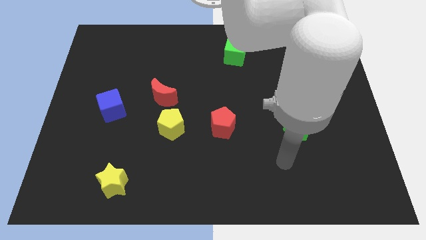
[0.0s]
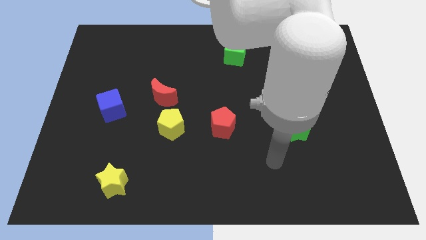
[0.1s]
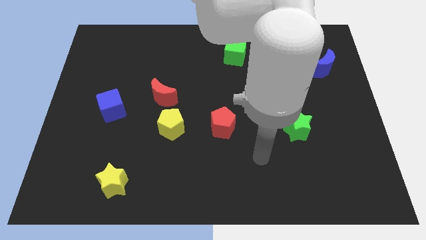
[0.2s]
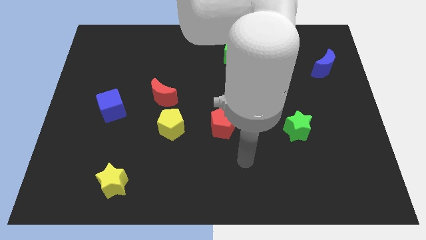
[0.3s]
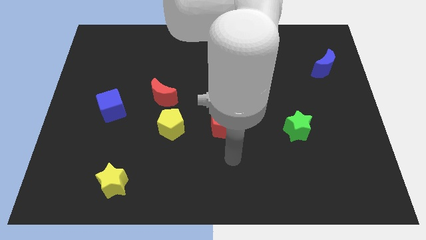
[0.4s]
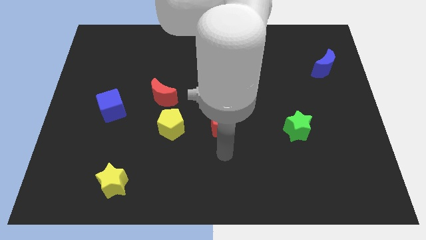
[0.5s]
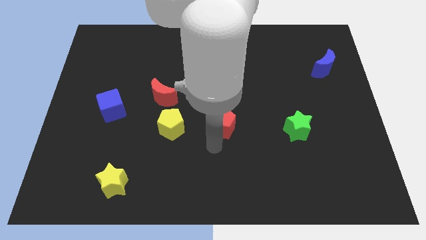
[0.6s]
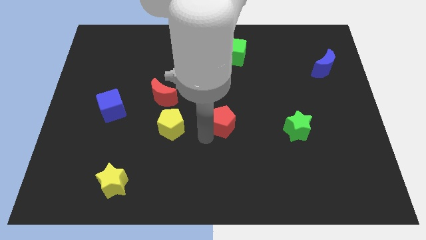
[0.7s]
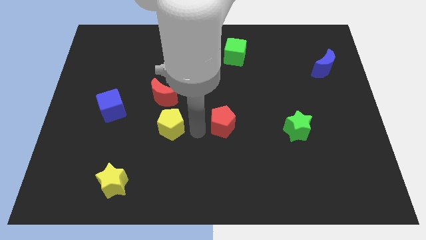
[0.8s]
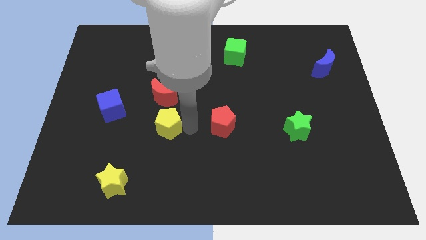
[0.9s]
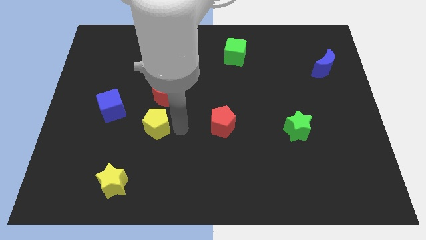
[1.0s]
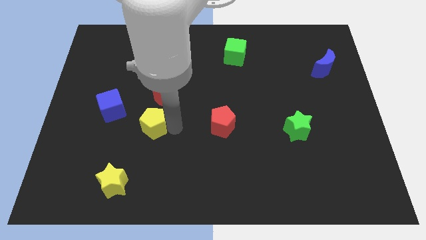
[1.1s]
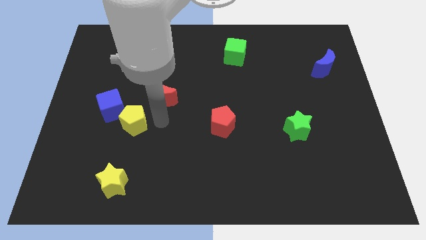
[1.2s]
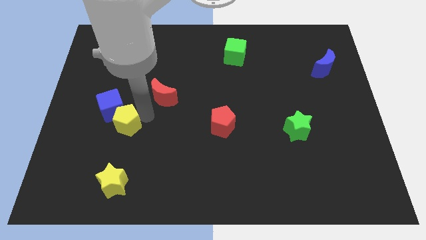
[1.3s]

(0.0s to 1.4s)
move the red moon away from the yellow pentagon

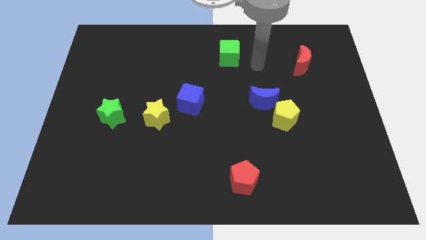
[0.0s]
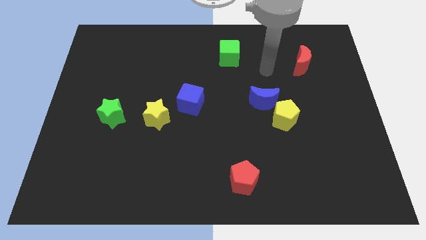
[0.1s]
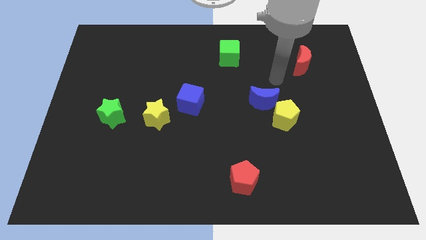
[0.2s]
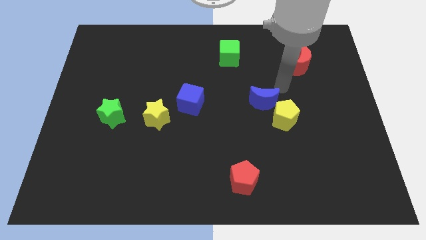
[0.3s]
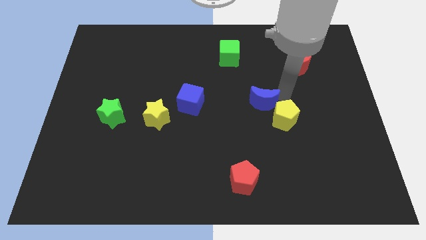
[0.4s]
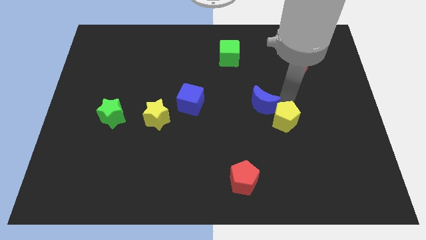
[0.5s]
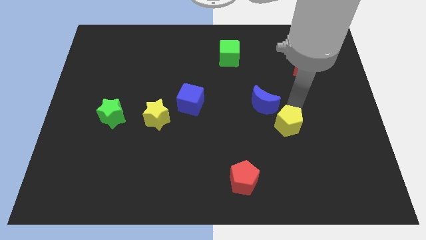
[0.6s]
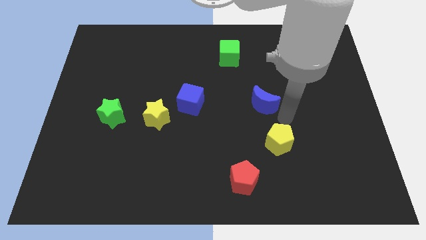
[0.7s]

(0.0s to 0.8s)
move the blue moon away from the yellow pentagon

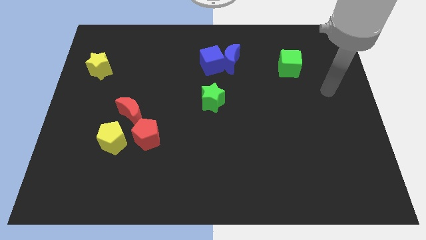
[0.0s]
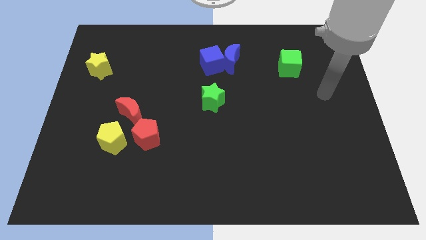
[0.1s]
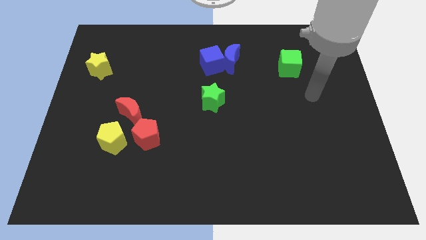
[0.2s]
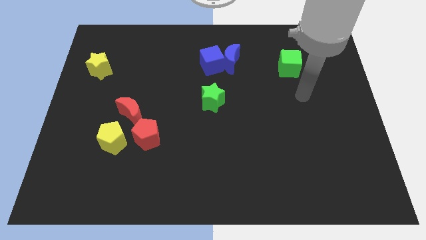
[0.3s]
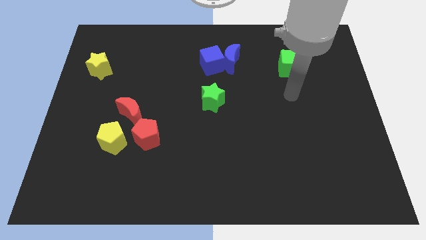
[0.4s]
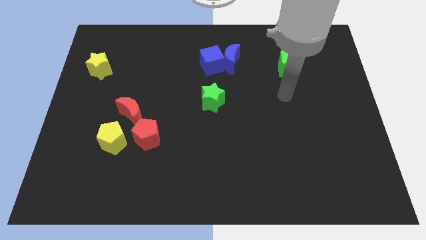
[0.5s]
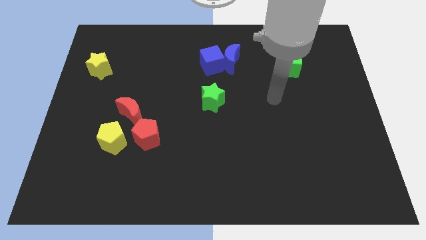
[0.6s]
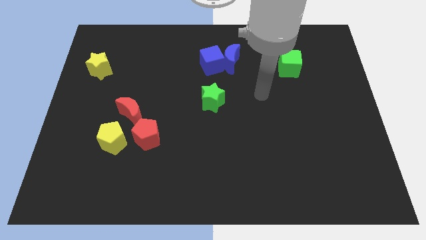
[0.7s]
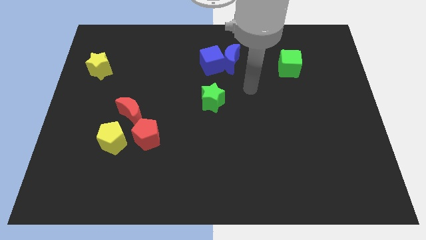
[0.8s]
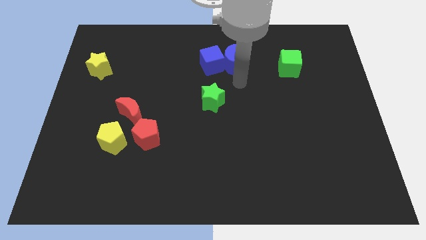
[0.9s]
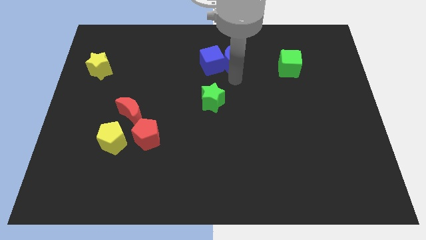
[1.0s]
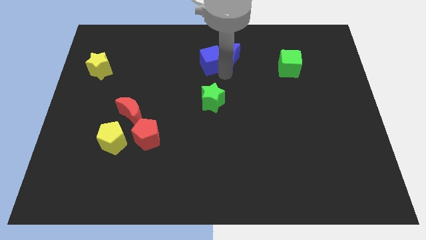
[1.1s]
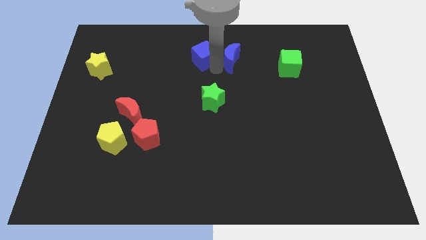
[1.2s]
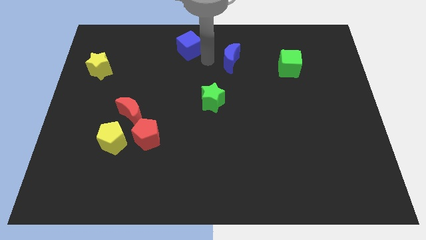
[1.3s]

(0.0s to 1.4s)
pull the blue moon apart from the blue cube

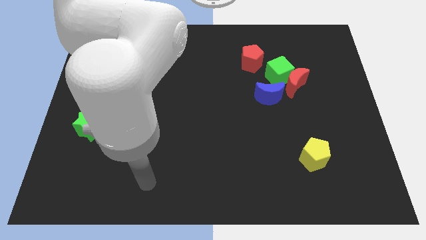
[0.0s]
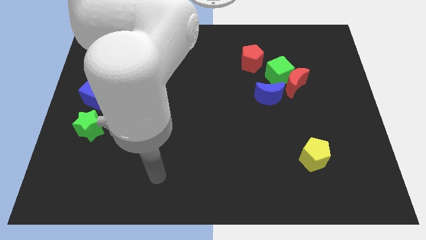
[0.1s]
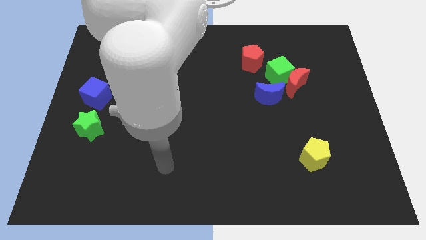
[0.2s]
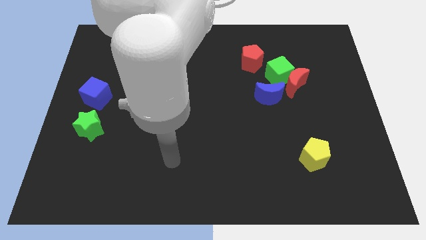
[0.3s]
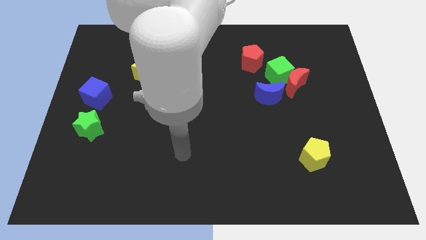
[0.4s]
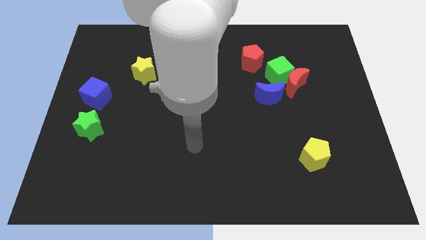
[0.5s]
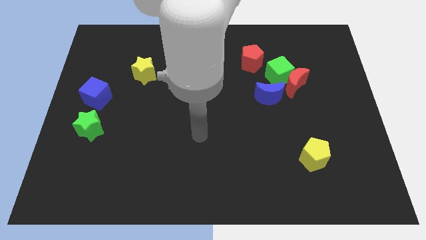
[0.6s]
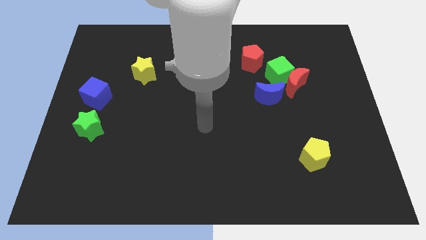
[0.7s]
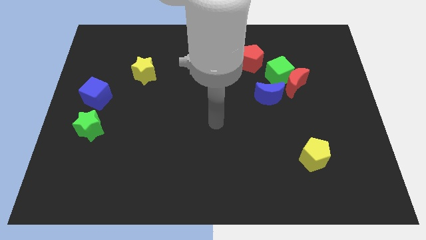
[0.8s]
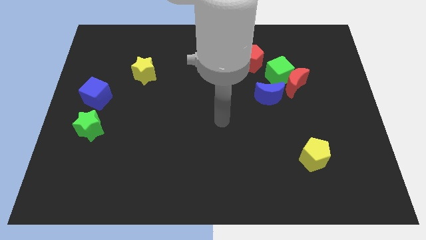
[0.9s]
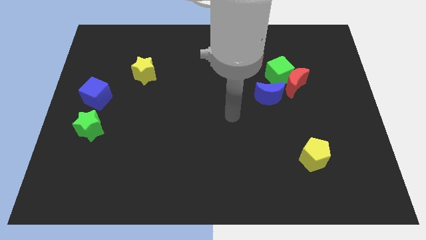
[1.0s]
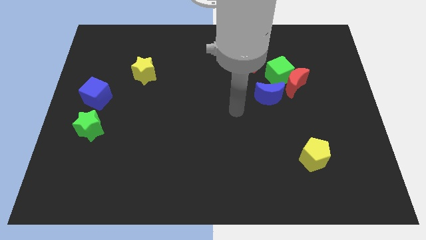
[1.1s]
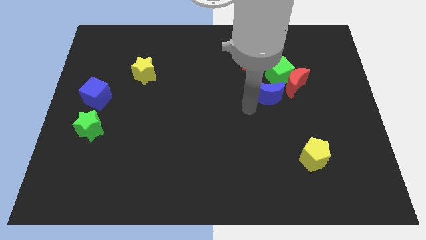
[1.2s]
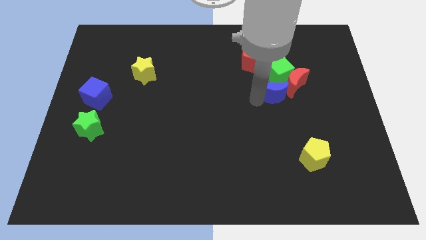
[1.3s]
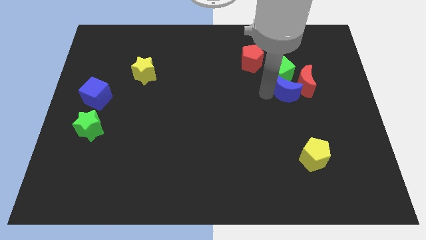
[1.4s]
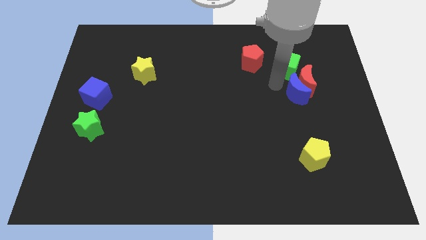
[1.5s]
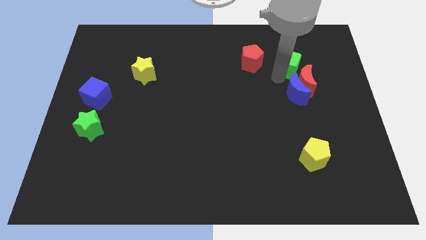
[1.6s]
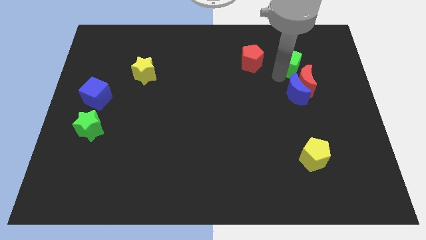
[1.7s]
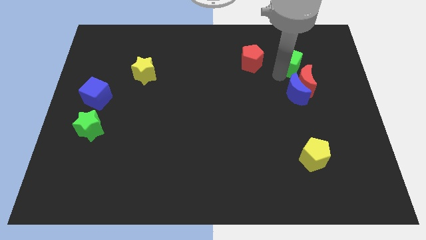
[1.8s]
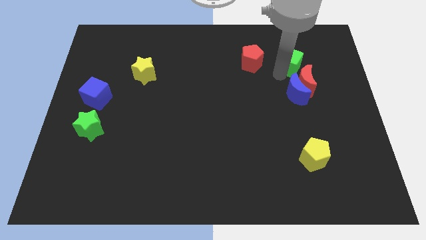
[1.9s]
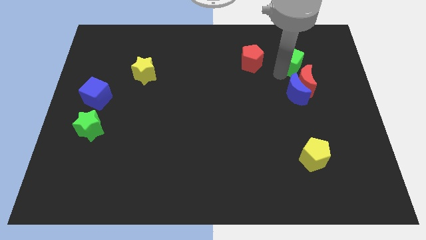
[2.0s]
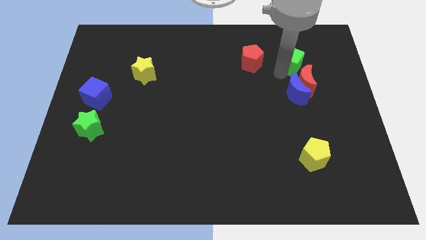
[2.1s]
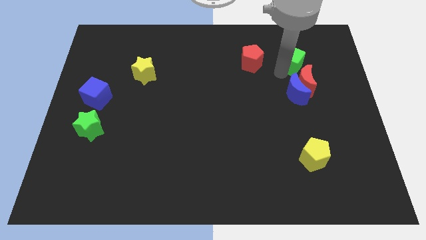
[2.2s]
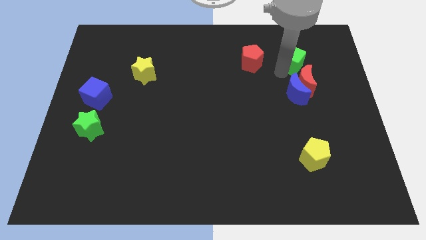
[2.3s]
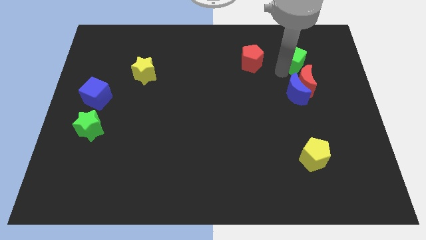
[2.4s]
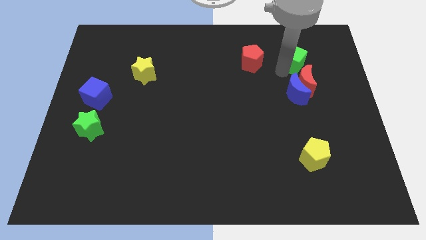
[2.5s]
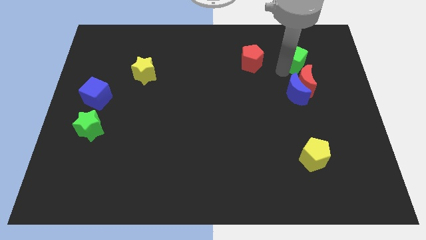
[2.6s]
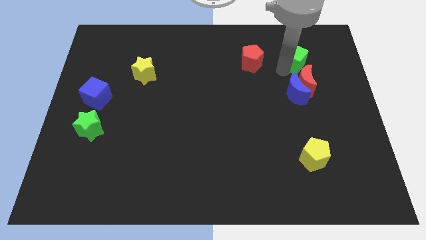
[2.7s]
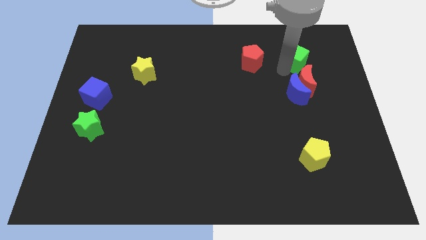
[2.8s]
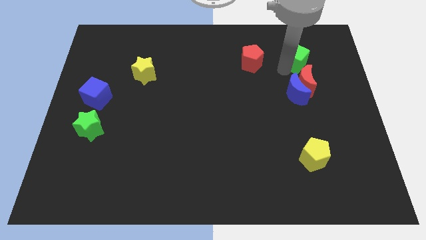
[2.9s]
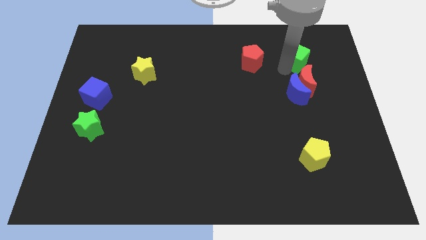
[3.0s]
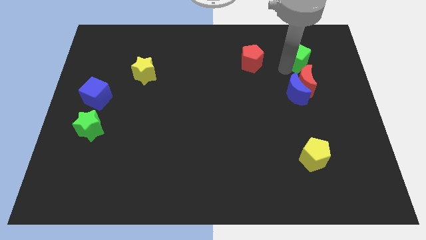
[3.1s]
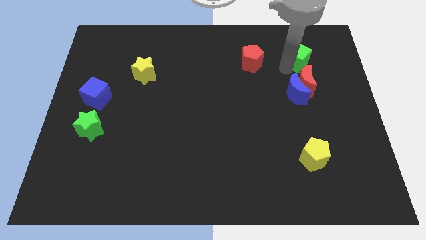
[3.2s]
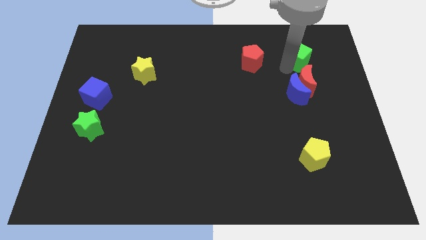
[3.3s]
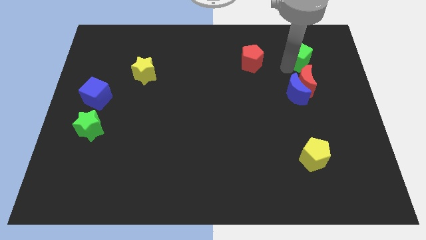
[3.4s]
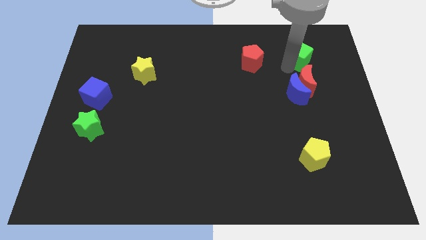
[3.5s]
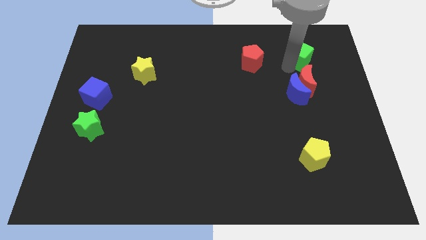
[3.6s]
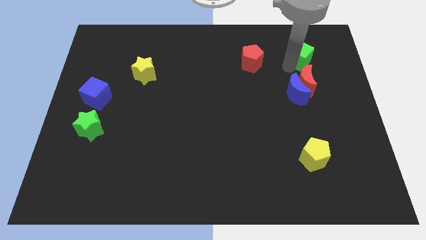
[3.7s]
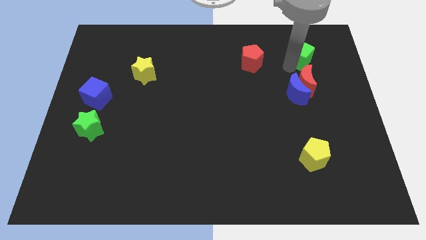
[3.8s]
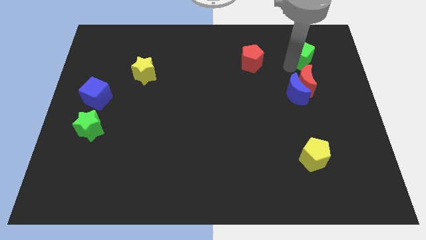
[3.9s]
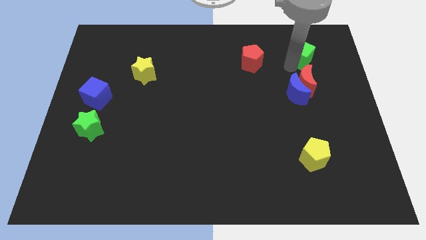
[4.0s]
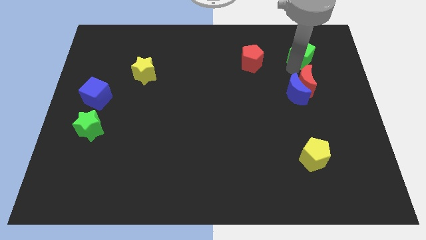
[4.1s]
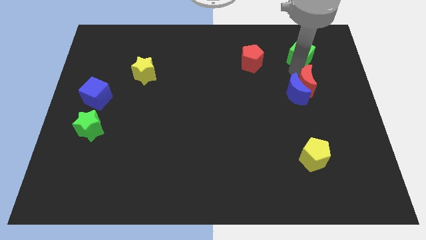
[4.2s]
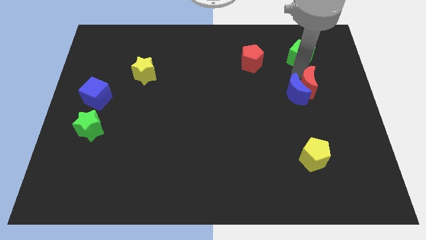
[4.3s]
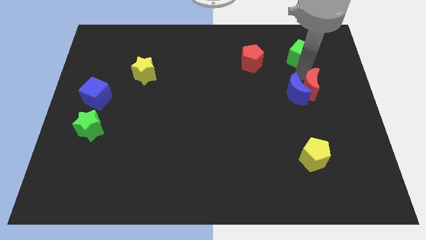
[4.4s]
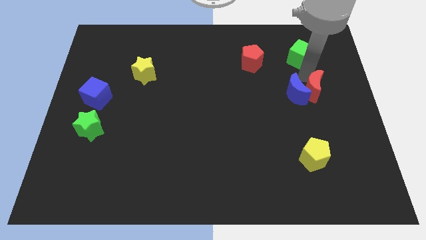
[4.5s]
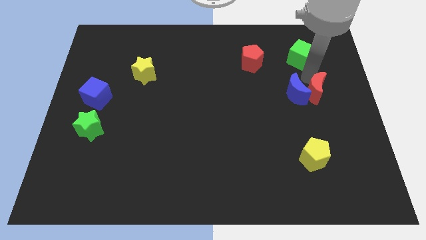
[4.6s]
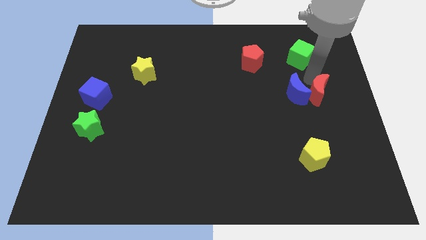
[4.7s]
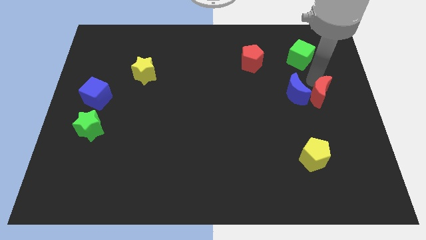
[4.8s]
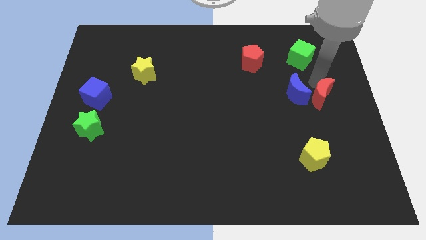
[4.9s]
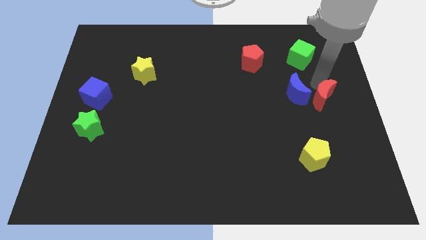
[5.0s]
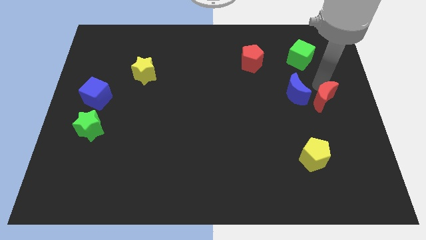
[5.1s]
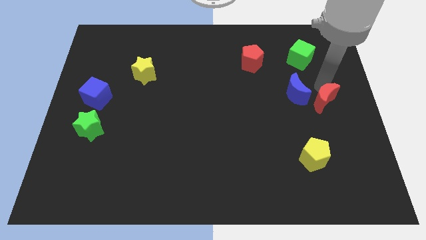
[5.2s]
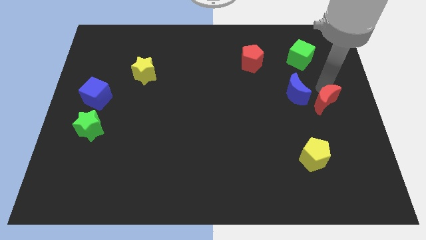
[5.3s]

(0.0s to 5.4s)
move the red moon away from the green cube and blue moon

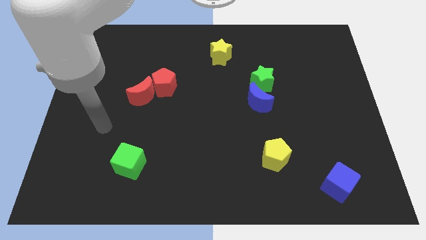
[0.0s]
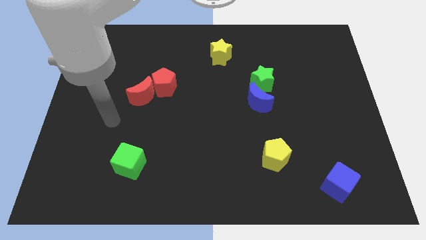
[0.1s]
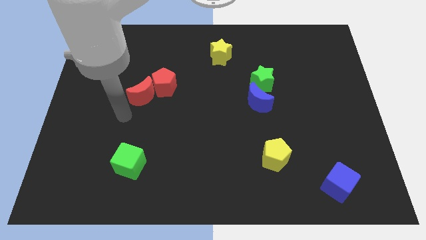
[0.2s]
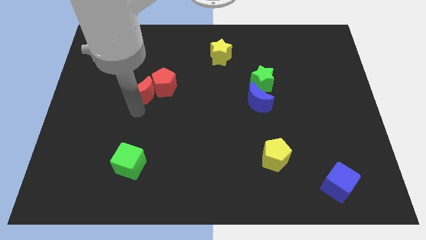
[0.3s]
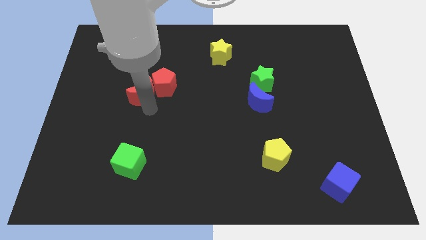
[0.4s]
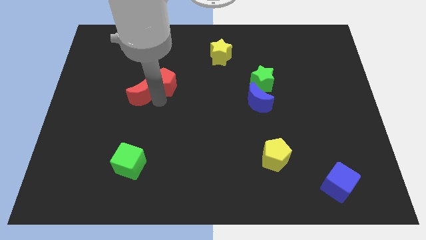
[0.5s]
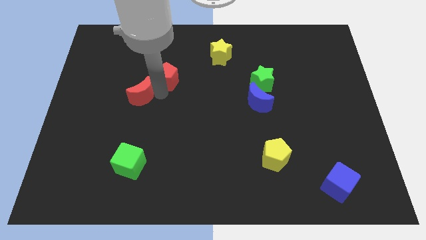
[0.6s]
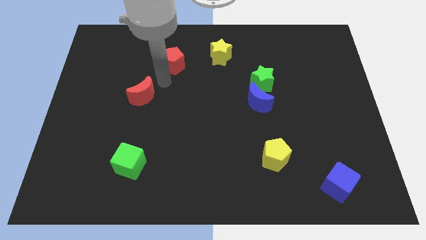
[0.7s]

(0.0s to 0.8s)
move the red moon away from the red pentagon
